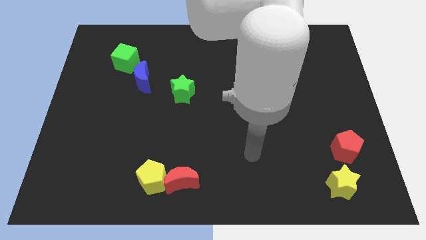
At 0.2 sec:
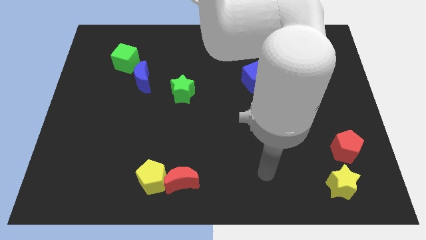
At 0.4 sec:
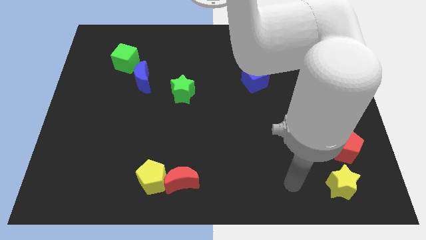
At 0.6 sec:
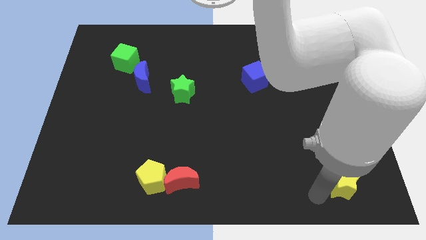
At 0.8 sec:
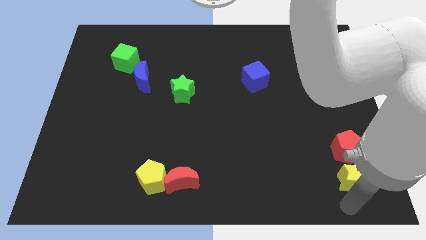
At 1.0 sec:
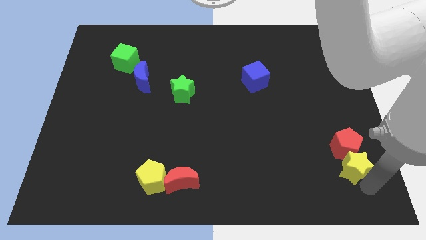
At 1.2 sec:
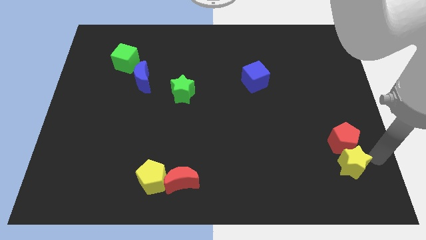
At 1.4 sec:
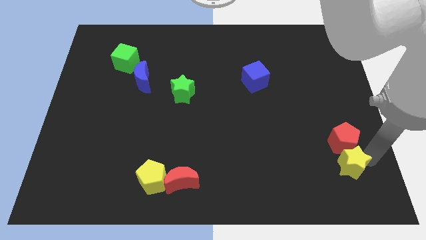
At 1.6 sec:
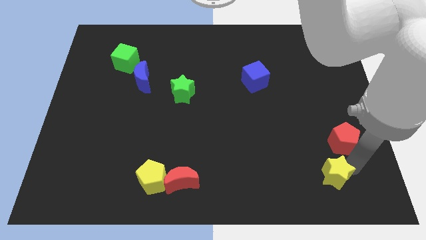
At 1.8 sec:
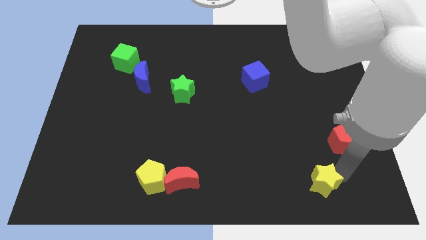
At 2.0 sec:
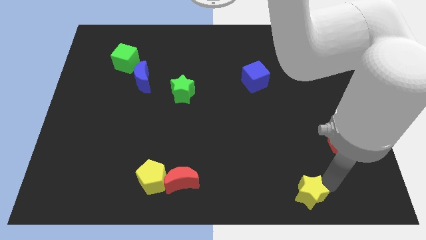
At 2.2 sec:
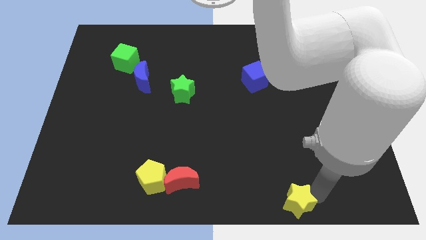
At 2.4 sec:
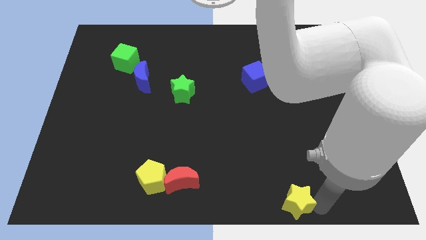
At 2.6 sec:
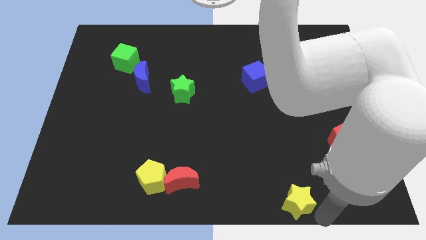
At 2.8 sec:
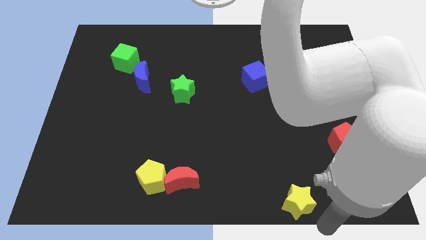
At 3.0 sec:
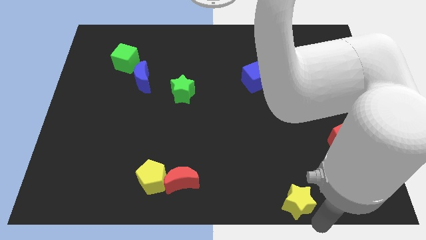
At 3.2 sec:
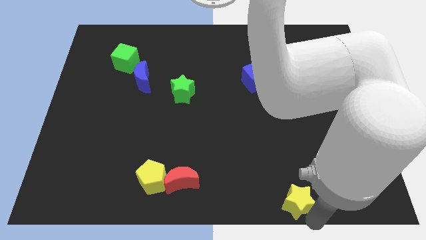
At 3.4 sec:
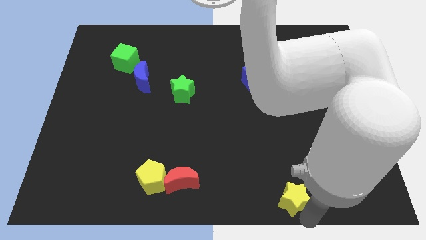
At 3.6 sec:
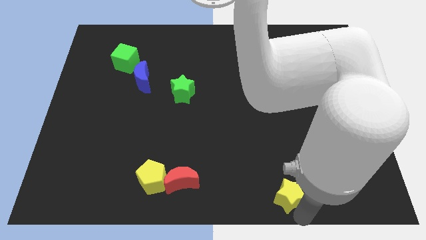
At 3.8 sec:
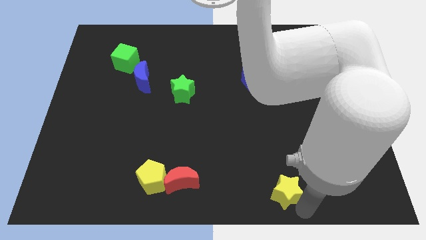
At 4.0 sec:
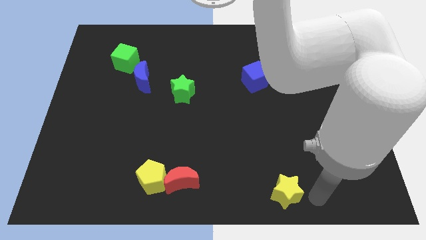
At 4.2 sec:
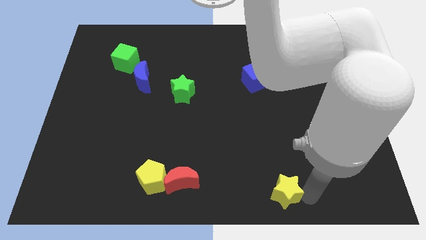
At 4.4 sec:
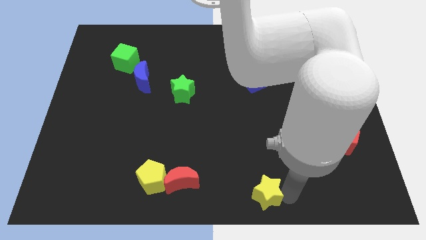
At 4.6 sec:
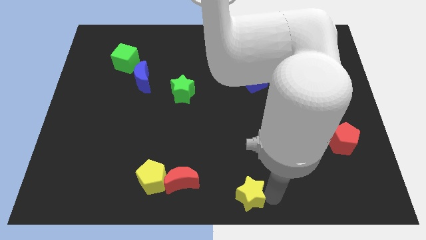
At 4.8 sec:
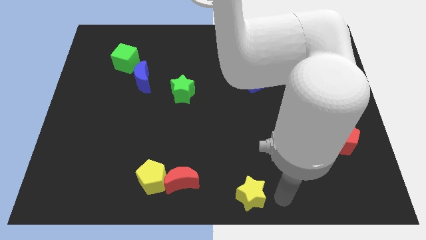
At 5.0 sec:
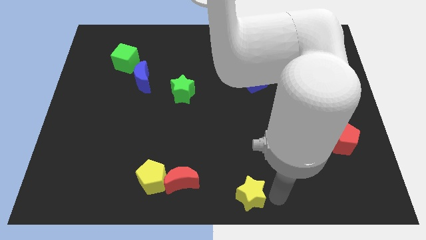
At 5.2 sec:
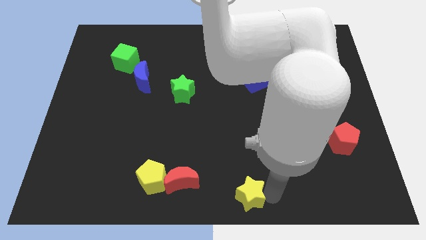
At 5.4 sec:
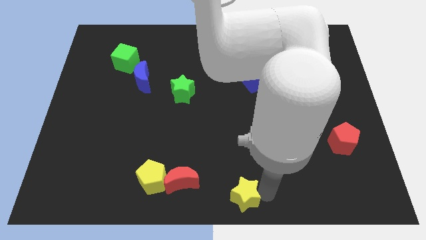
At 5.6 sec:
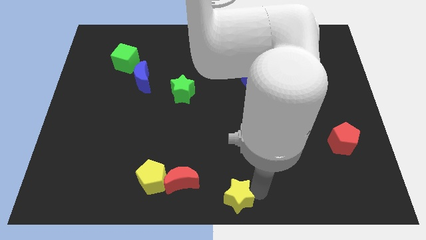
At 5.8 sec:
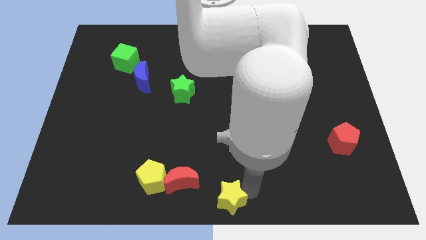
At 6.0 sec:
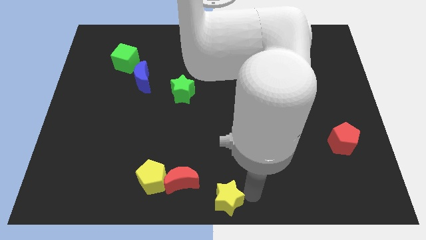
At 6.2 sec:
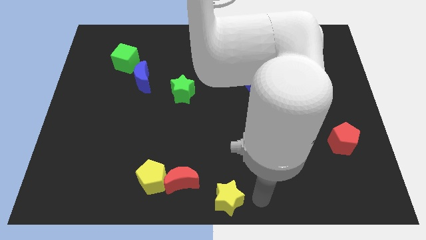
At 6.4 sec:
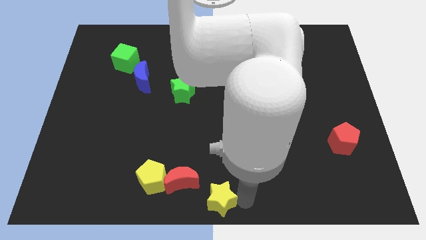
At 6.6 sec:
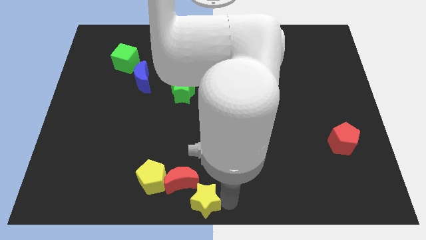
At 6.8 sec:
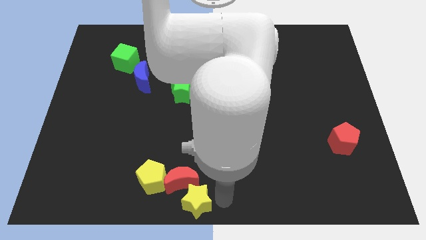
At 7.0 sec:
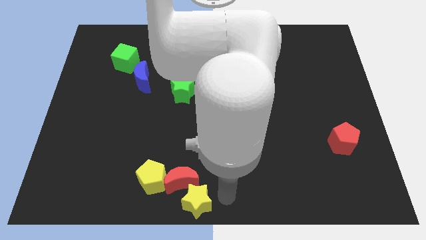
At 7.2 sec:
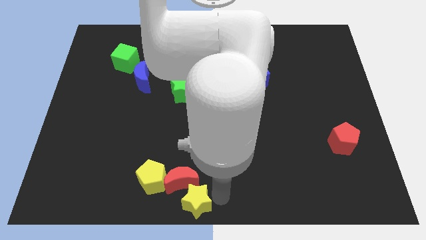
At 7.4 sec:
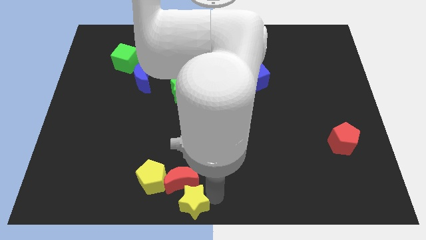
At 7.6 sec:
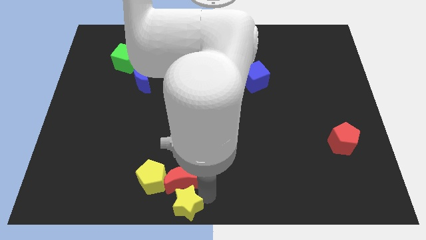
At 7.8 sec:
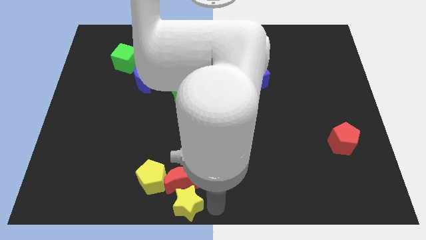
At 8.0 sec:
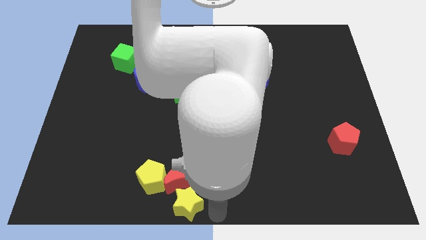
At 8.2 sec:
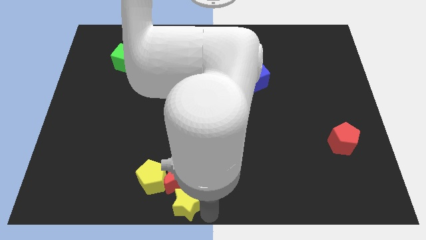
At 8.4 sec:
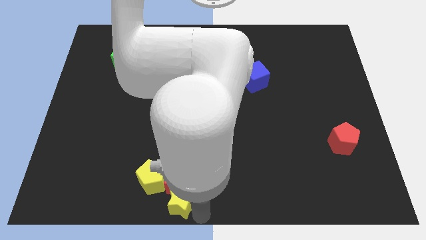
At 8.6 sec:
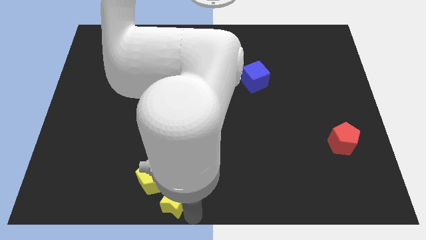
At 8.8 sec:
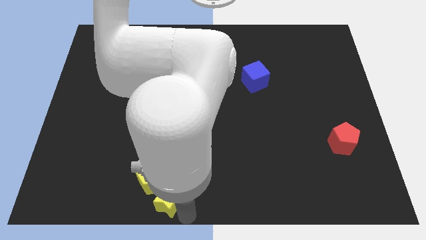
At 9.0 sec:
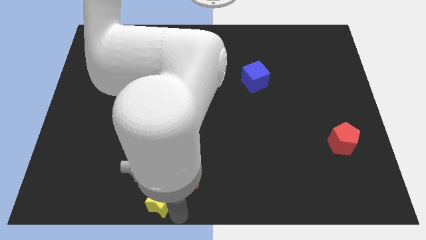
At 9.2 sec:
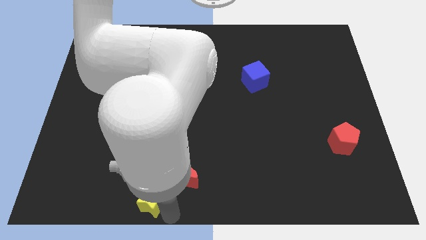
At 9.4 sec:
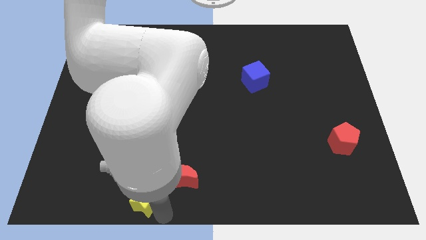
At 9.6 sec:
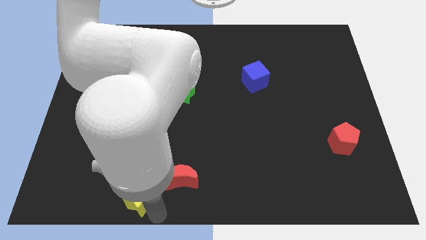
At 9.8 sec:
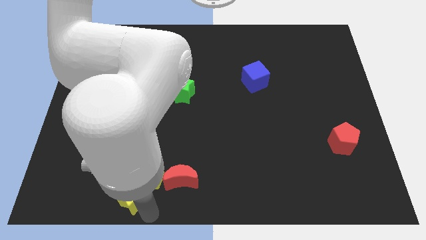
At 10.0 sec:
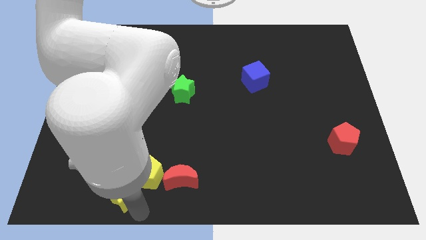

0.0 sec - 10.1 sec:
slide the yellow star to the left side of the yellow pentagon

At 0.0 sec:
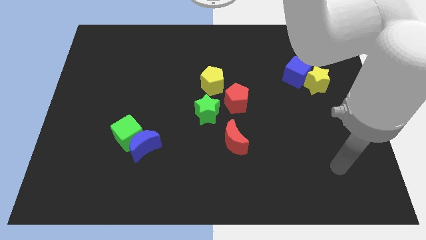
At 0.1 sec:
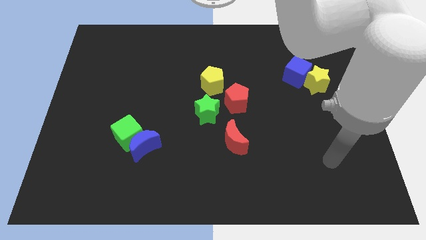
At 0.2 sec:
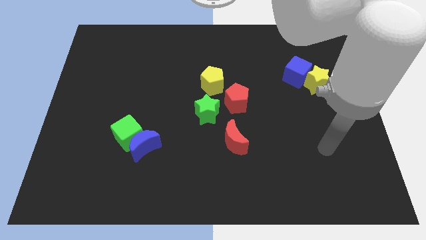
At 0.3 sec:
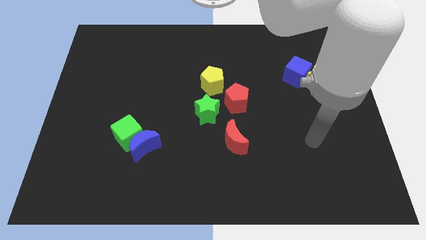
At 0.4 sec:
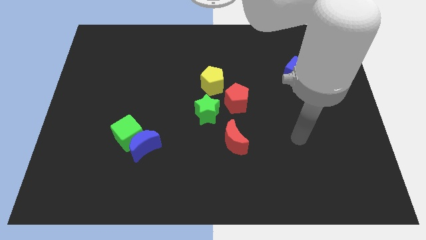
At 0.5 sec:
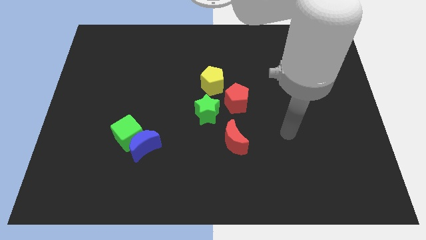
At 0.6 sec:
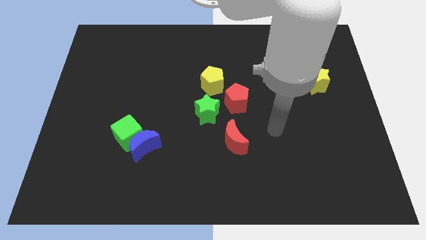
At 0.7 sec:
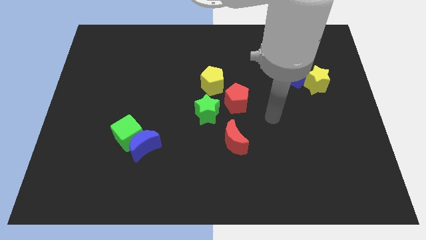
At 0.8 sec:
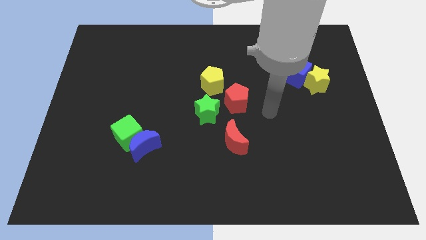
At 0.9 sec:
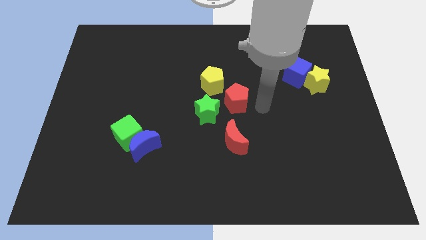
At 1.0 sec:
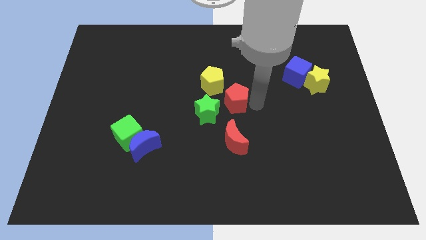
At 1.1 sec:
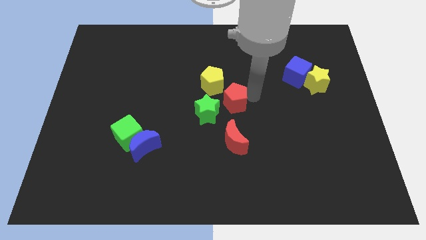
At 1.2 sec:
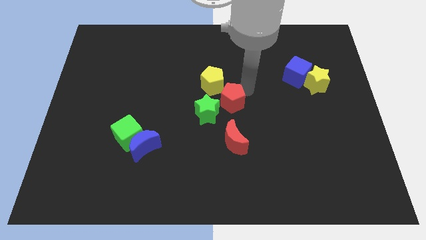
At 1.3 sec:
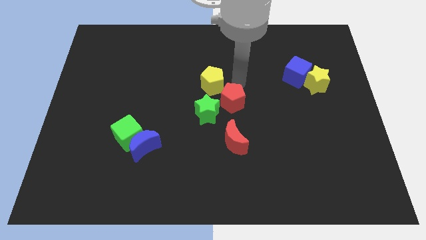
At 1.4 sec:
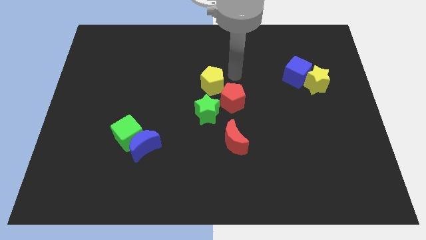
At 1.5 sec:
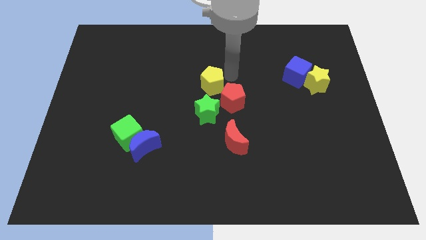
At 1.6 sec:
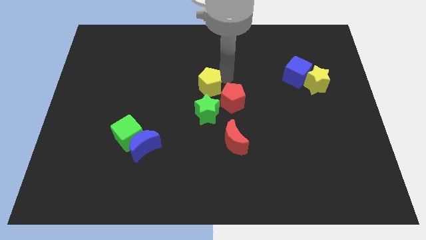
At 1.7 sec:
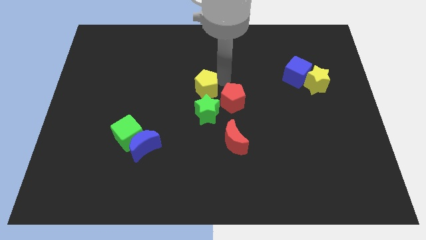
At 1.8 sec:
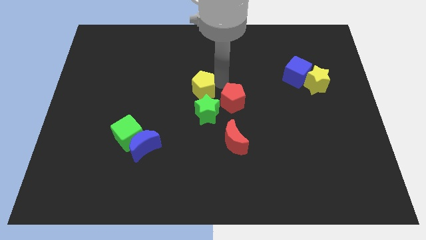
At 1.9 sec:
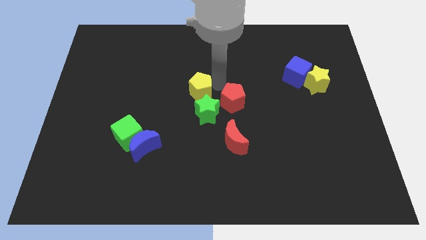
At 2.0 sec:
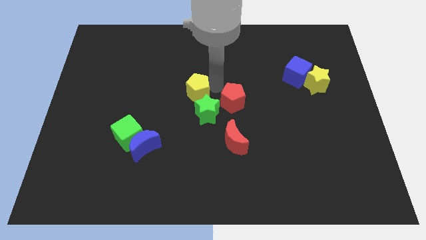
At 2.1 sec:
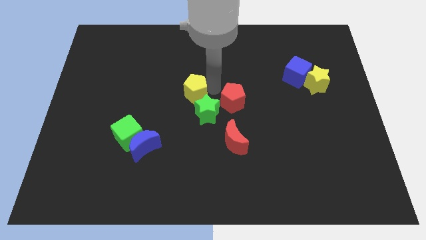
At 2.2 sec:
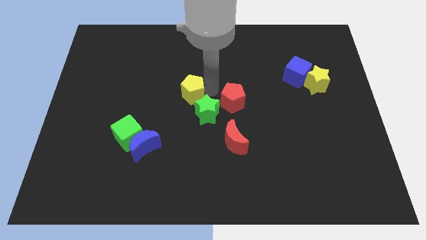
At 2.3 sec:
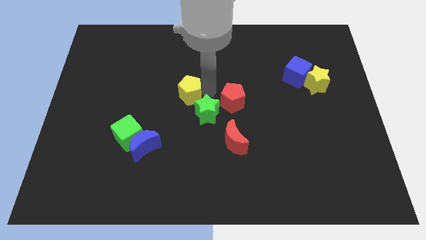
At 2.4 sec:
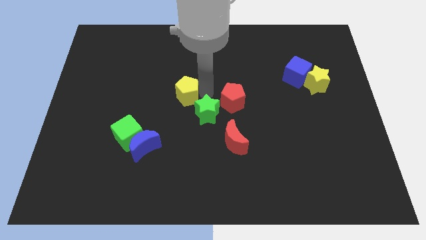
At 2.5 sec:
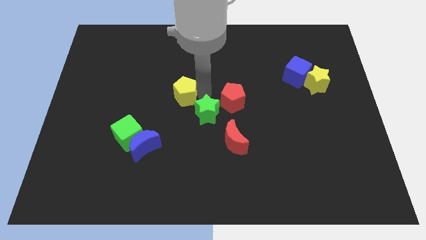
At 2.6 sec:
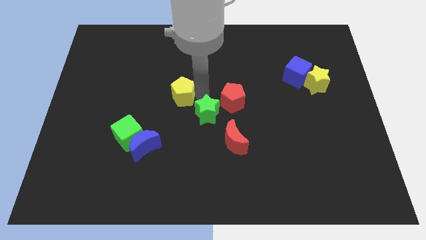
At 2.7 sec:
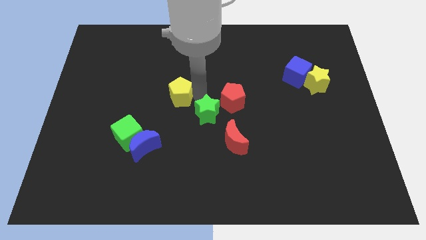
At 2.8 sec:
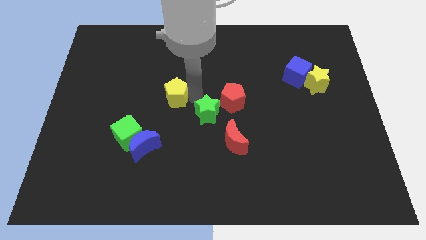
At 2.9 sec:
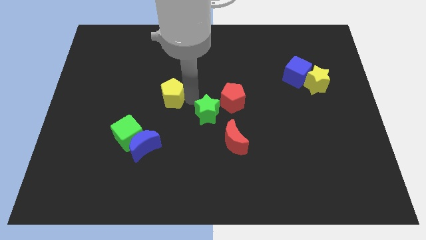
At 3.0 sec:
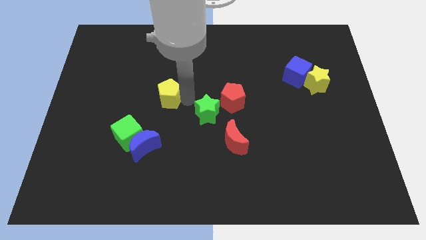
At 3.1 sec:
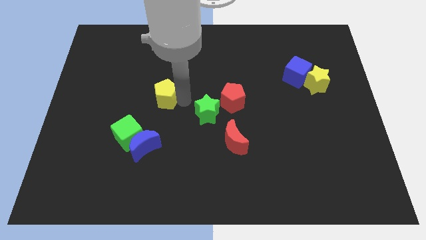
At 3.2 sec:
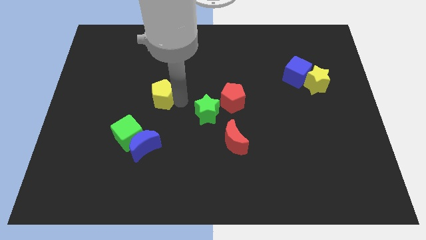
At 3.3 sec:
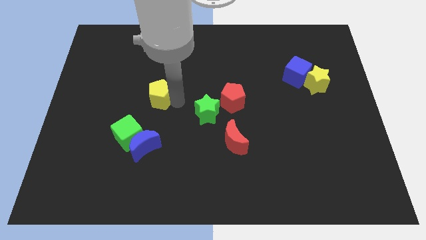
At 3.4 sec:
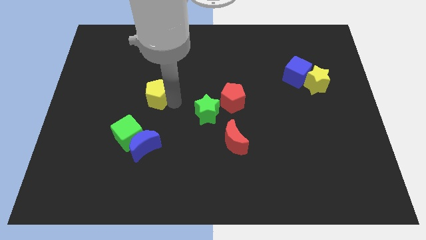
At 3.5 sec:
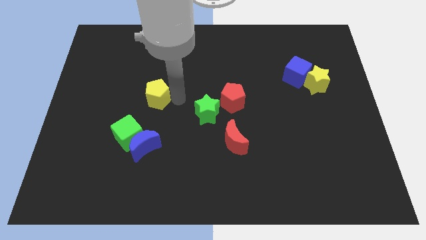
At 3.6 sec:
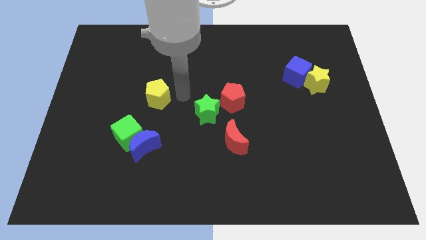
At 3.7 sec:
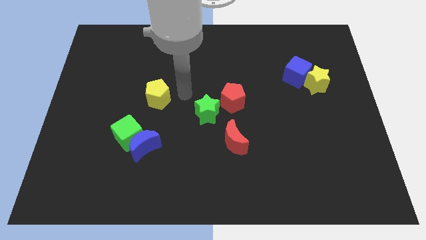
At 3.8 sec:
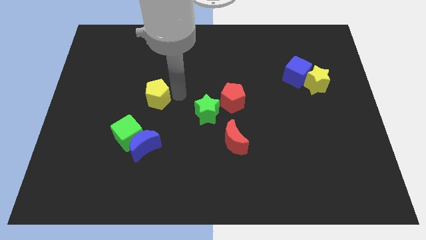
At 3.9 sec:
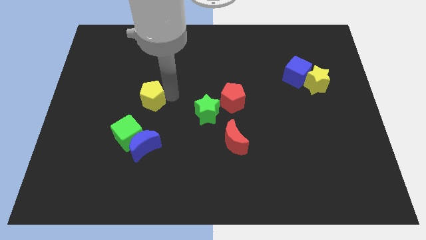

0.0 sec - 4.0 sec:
put the yellow pentagon to the top side of the green cube
